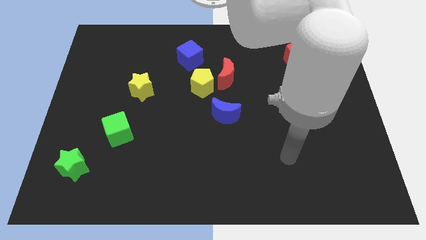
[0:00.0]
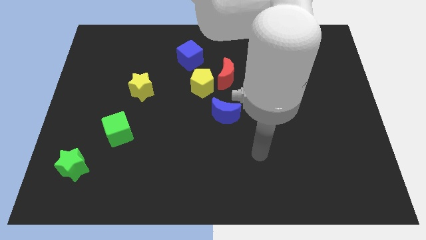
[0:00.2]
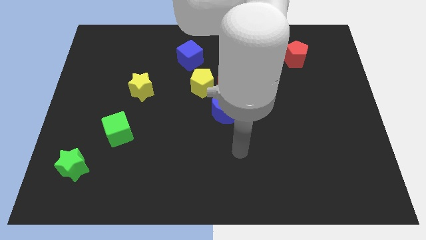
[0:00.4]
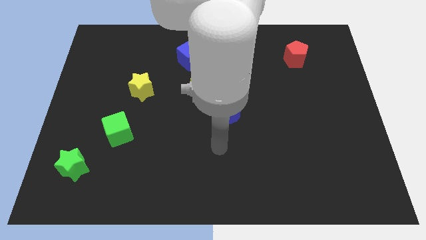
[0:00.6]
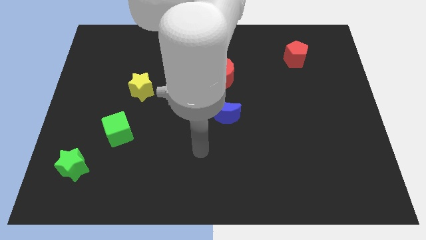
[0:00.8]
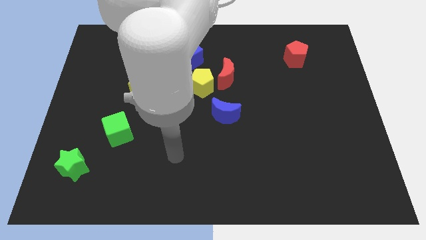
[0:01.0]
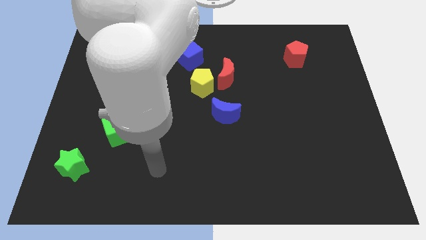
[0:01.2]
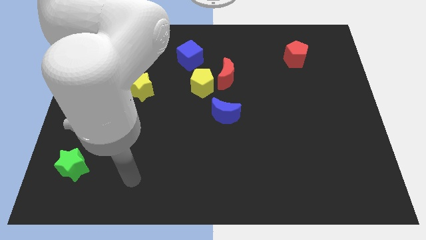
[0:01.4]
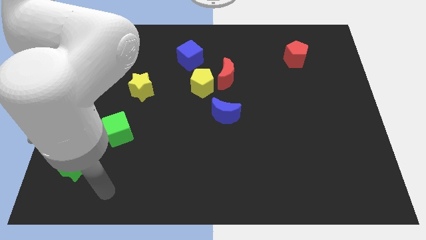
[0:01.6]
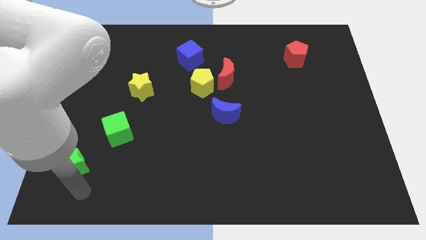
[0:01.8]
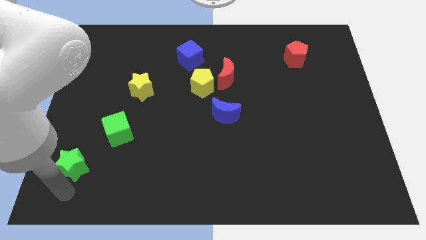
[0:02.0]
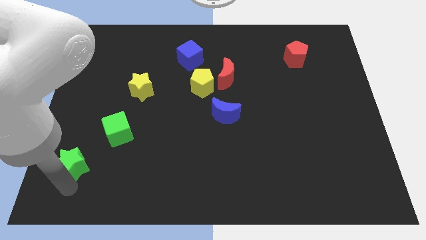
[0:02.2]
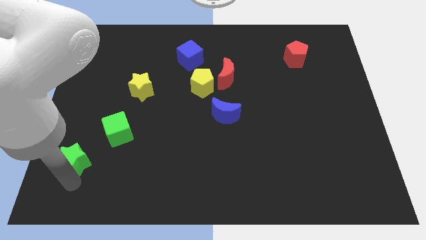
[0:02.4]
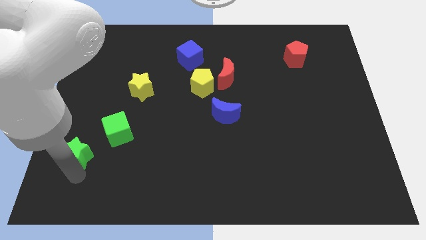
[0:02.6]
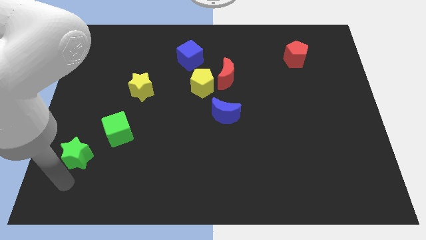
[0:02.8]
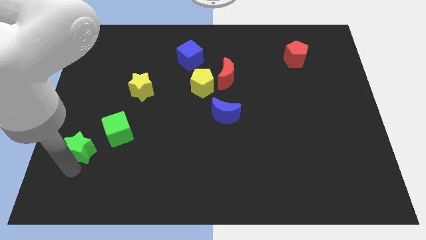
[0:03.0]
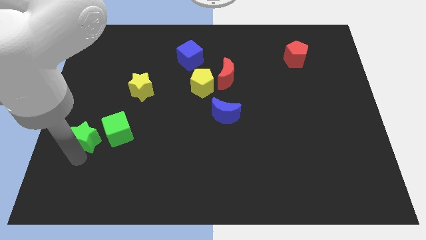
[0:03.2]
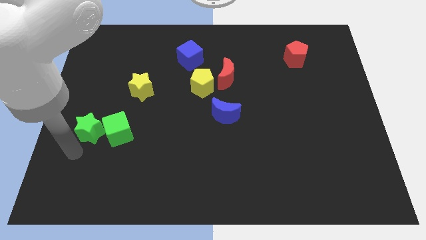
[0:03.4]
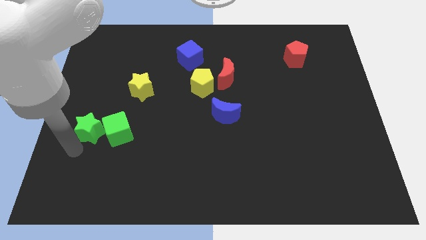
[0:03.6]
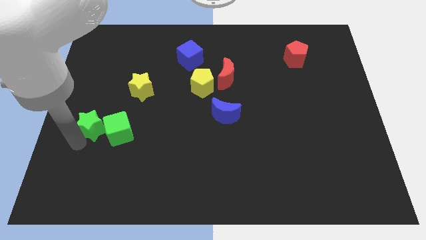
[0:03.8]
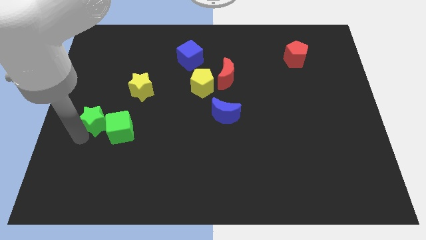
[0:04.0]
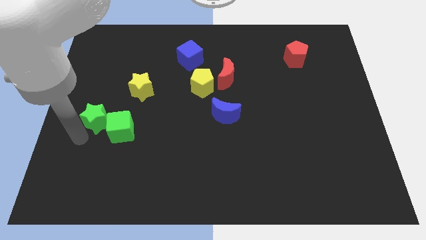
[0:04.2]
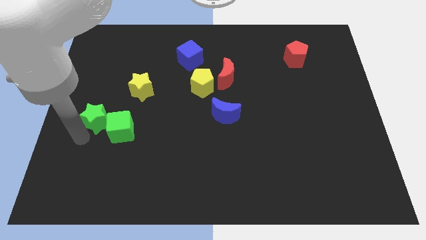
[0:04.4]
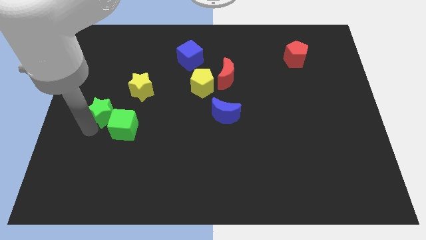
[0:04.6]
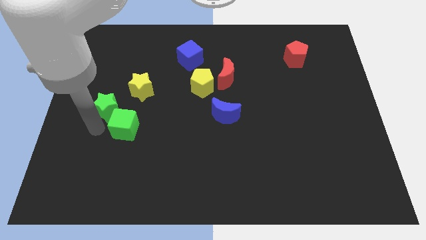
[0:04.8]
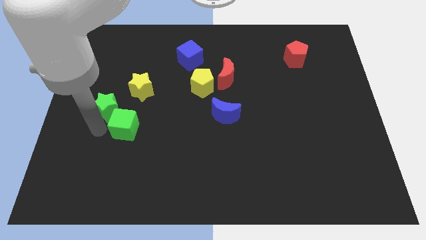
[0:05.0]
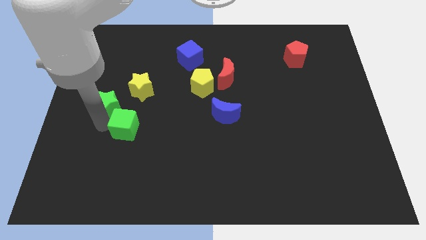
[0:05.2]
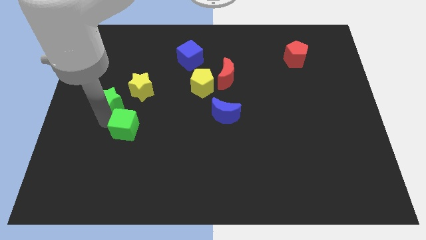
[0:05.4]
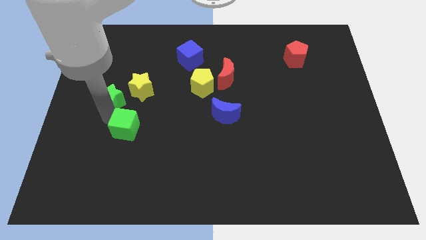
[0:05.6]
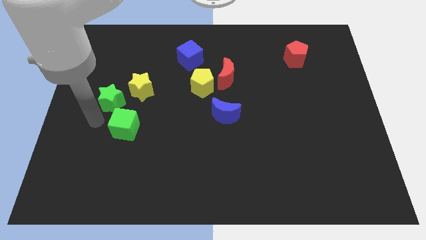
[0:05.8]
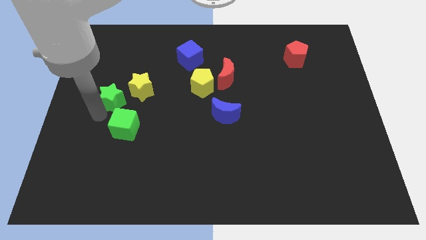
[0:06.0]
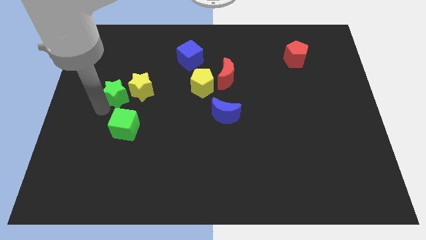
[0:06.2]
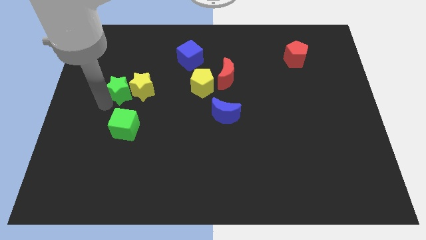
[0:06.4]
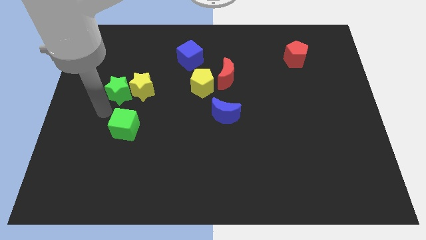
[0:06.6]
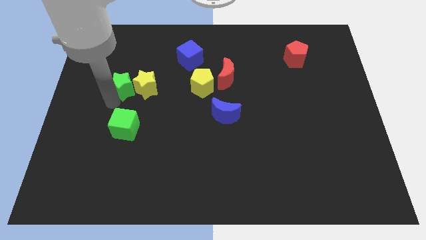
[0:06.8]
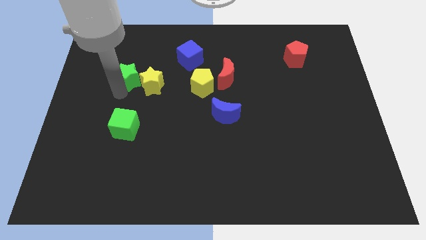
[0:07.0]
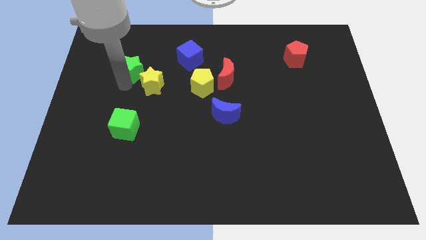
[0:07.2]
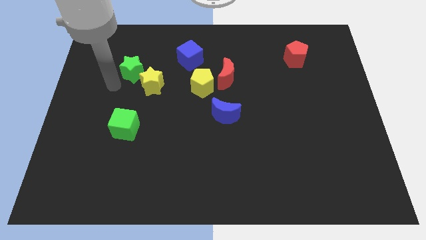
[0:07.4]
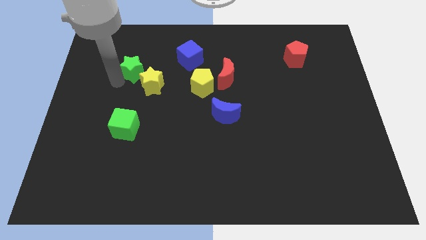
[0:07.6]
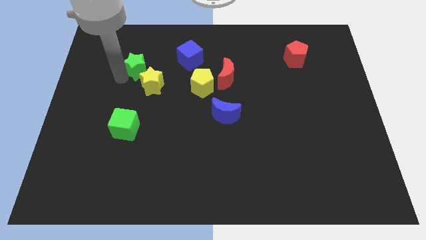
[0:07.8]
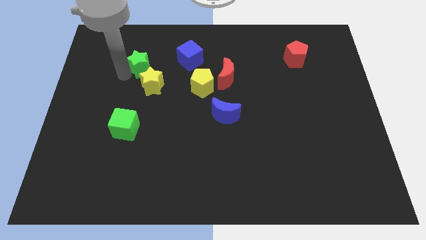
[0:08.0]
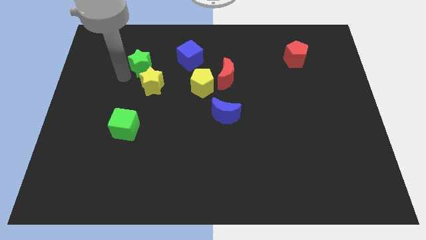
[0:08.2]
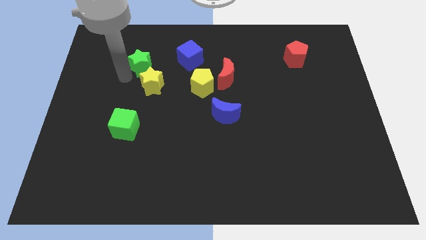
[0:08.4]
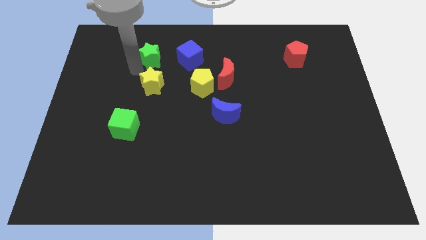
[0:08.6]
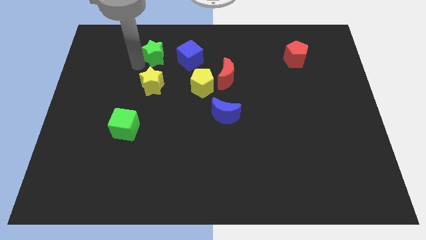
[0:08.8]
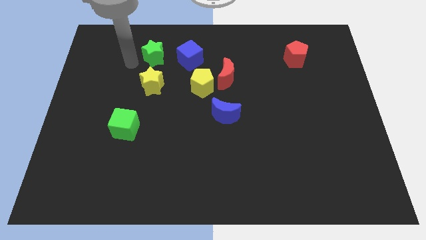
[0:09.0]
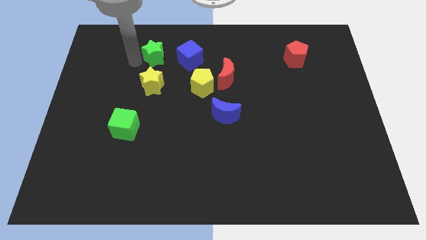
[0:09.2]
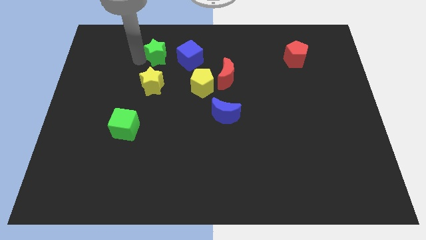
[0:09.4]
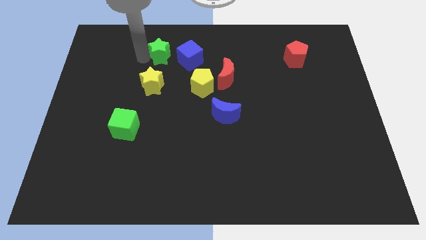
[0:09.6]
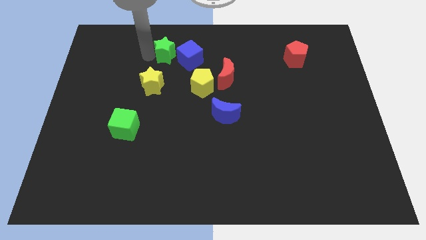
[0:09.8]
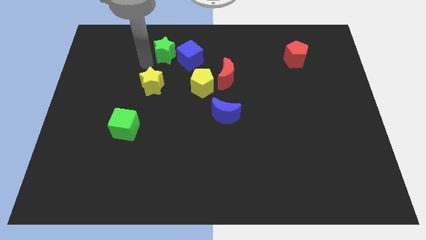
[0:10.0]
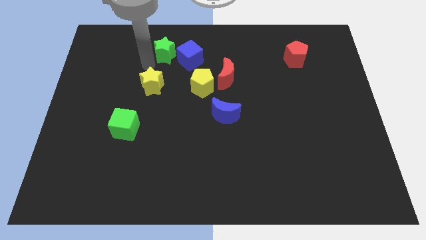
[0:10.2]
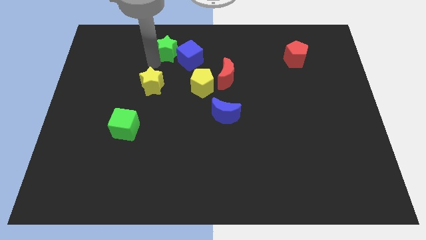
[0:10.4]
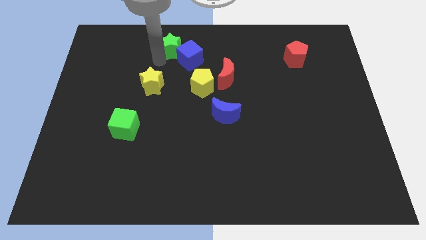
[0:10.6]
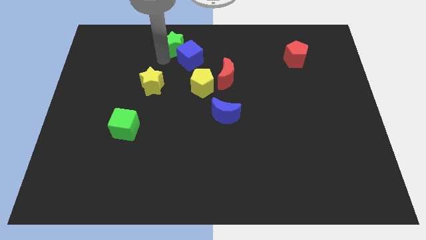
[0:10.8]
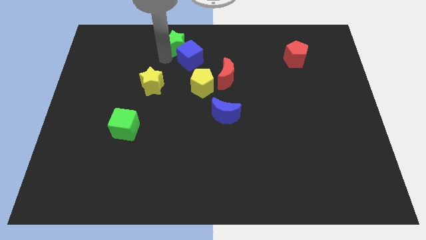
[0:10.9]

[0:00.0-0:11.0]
move the green star to the top
